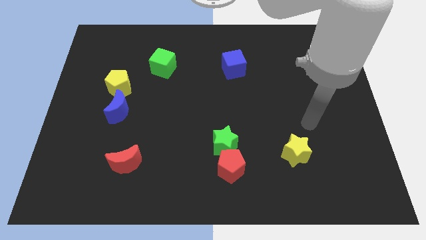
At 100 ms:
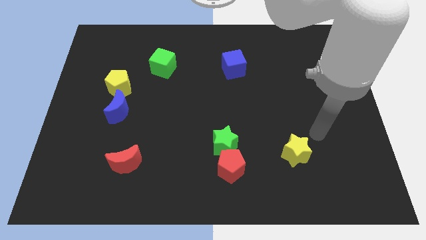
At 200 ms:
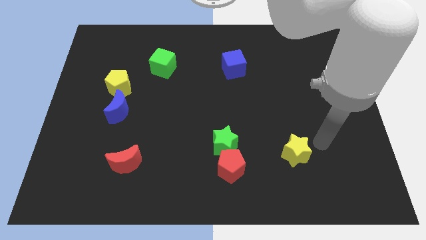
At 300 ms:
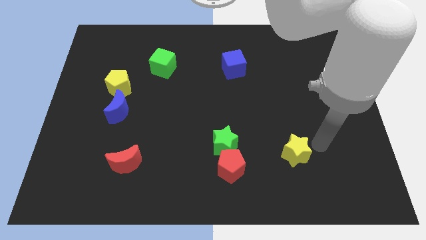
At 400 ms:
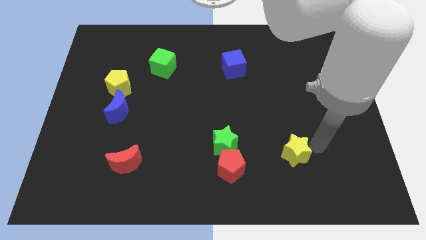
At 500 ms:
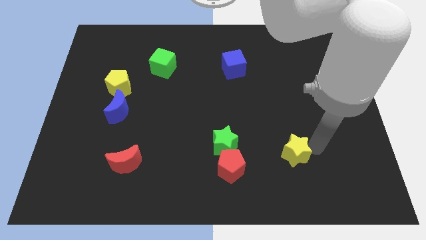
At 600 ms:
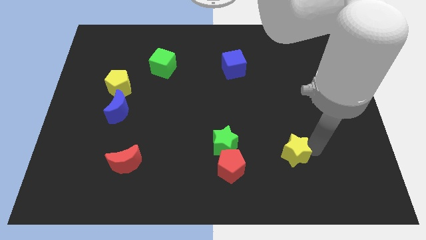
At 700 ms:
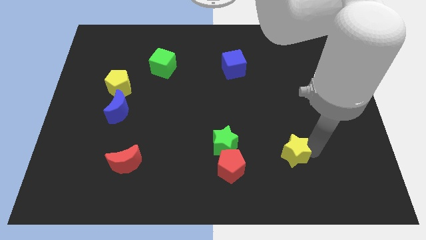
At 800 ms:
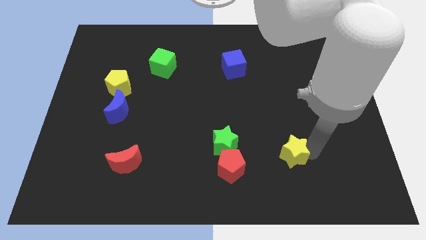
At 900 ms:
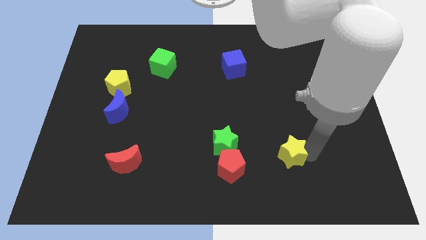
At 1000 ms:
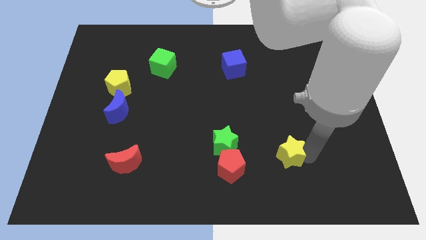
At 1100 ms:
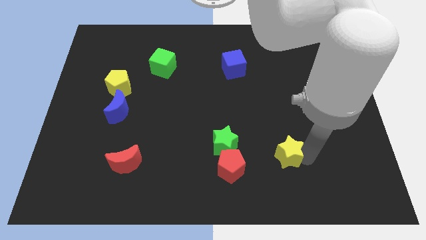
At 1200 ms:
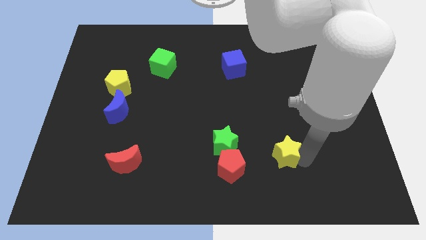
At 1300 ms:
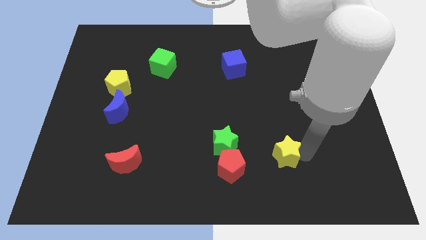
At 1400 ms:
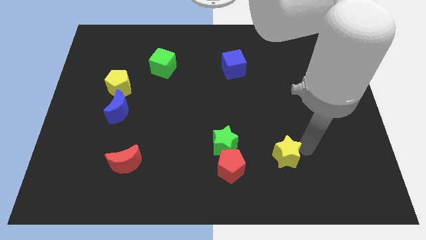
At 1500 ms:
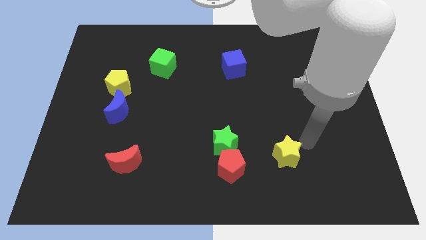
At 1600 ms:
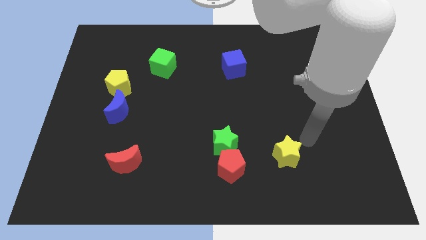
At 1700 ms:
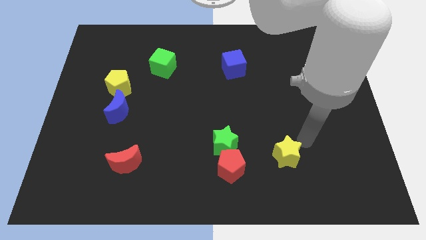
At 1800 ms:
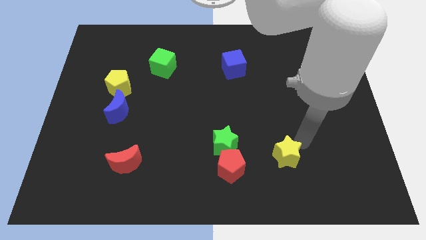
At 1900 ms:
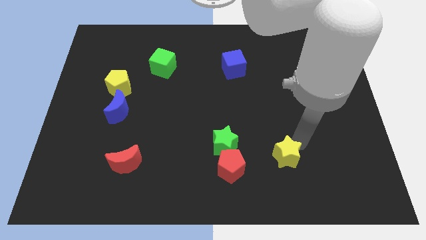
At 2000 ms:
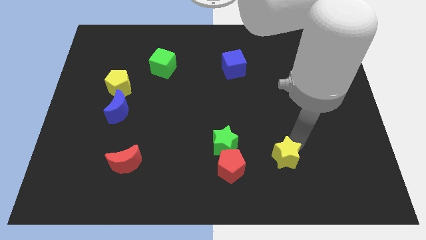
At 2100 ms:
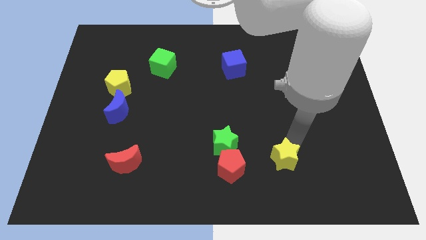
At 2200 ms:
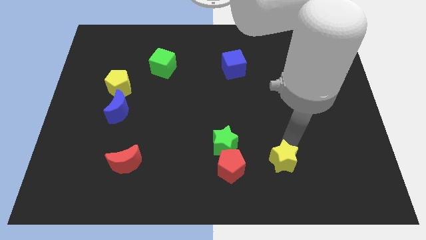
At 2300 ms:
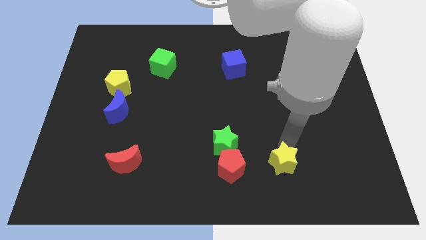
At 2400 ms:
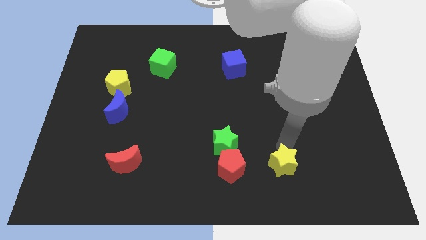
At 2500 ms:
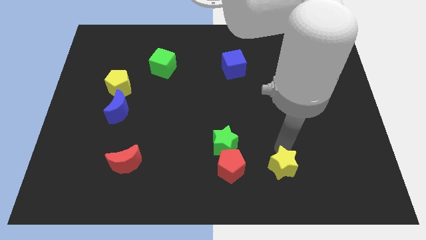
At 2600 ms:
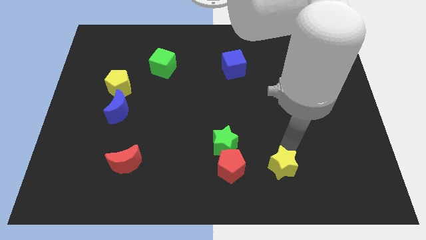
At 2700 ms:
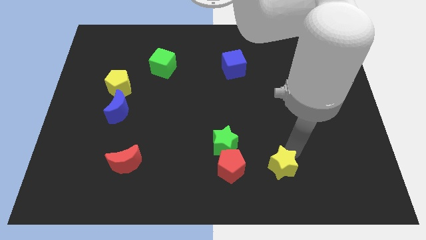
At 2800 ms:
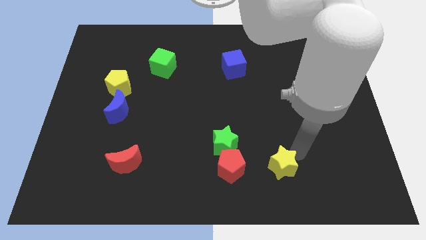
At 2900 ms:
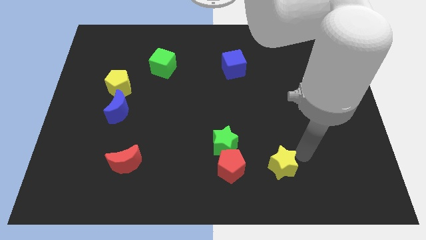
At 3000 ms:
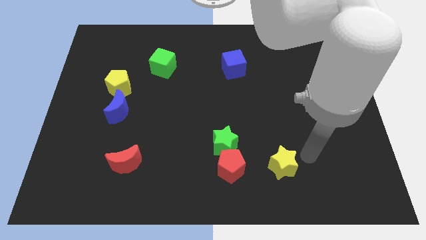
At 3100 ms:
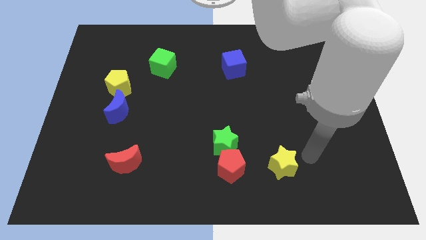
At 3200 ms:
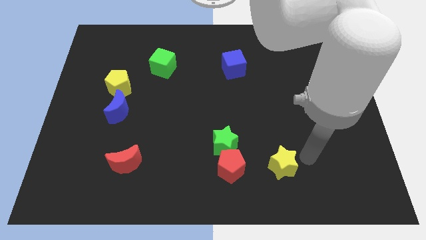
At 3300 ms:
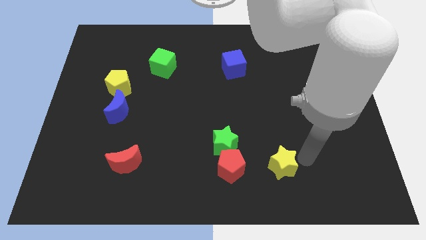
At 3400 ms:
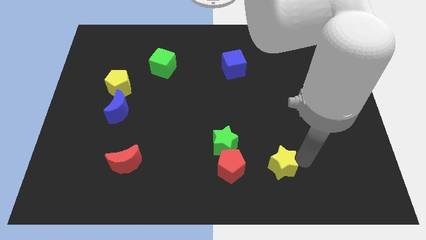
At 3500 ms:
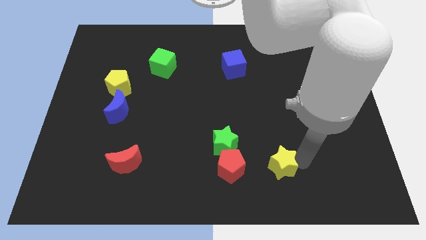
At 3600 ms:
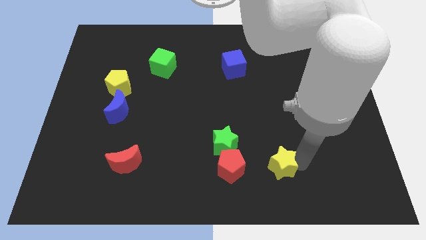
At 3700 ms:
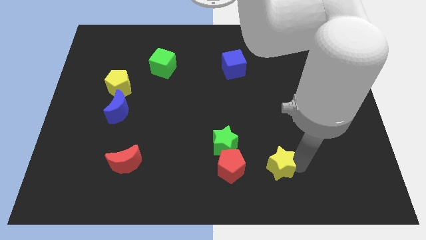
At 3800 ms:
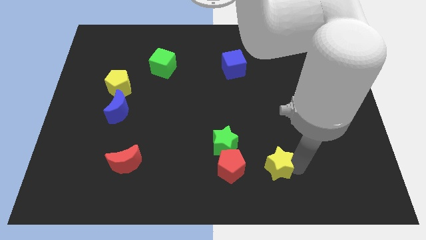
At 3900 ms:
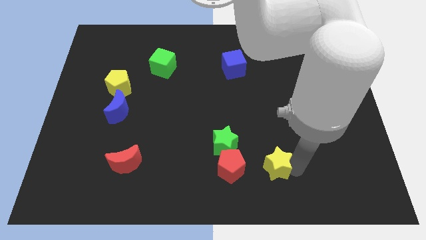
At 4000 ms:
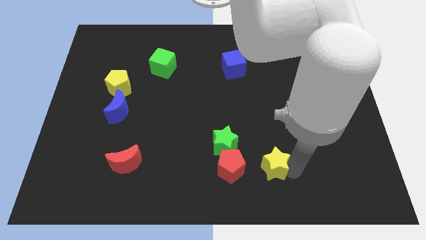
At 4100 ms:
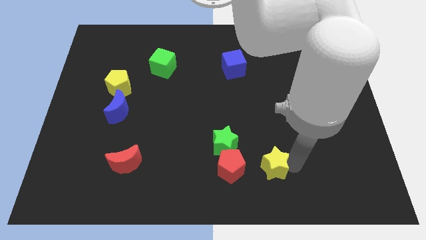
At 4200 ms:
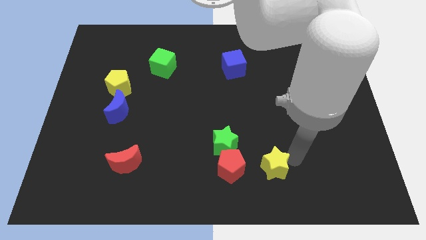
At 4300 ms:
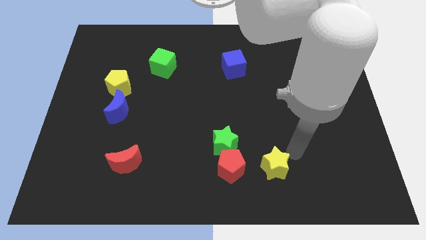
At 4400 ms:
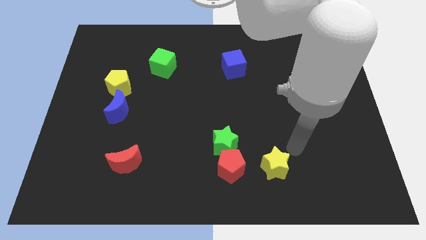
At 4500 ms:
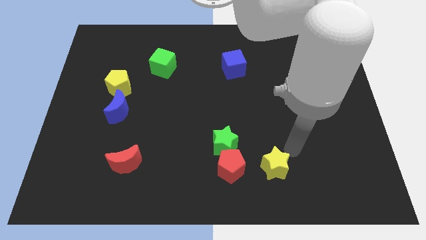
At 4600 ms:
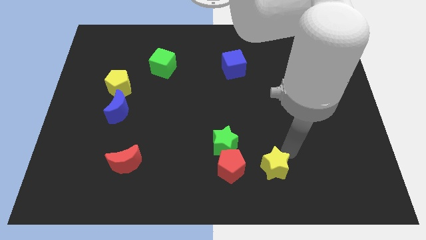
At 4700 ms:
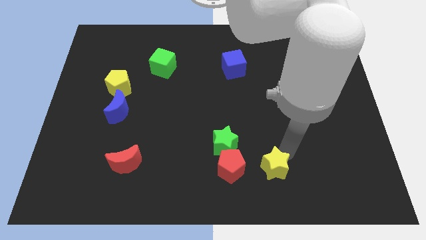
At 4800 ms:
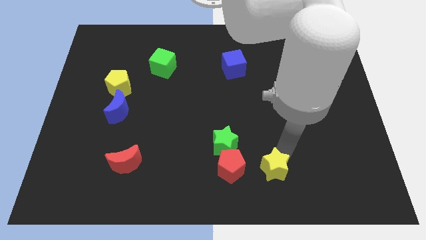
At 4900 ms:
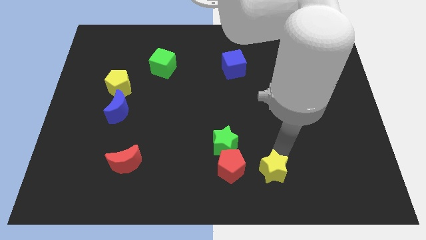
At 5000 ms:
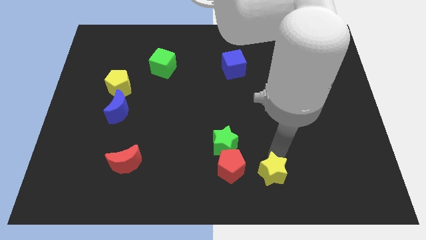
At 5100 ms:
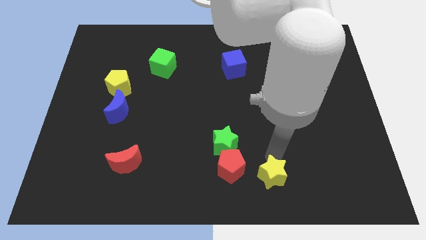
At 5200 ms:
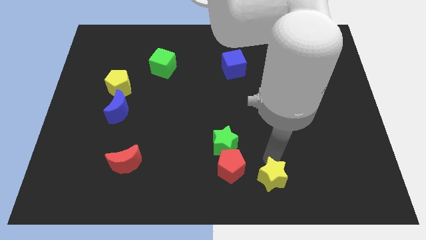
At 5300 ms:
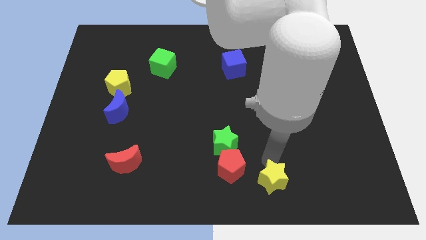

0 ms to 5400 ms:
slide the yellow star to the bottom side

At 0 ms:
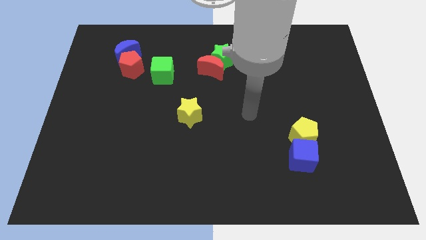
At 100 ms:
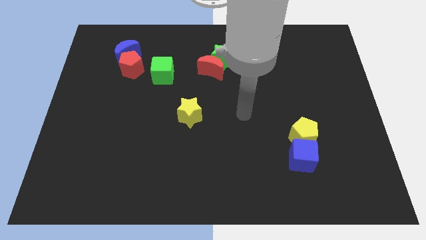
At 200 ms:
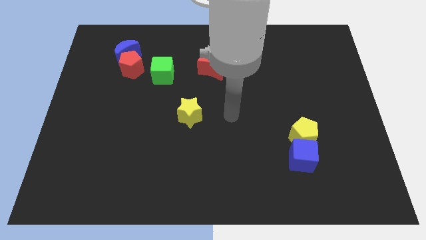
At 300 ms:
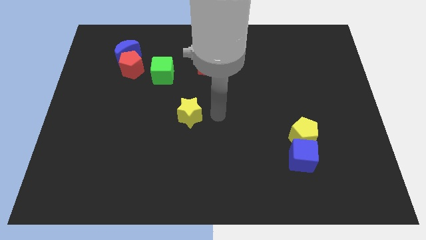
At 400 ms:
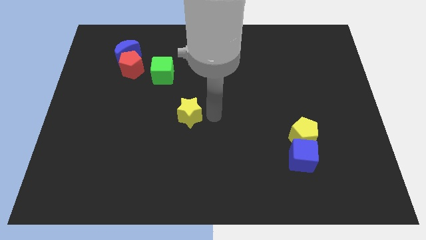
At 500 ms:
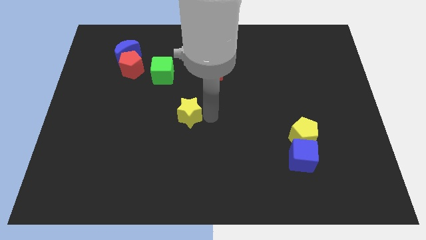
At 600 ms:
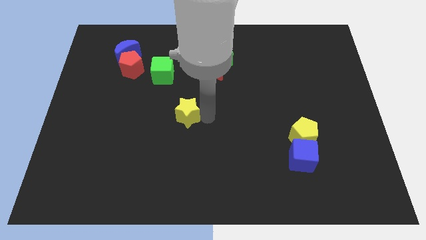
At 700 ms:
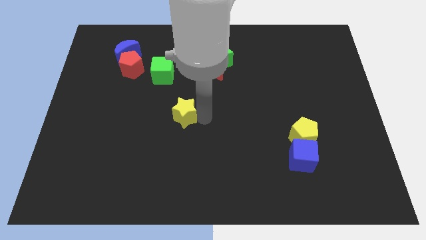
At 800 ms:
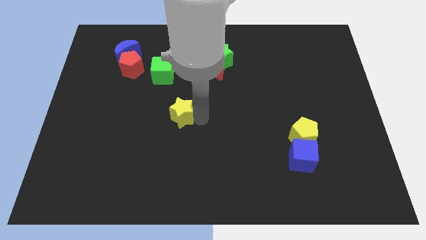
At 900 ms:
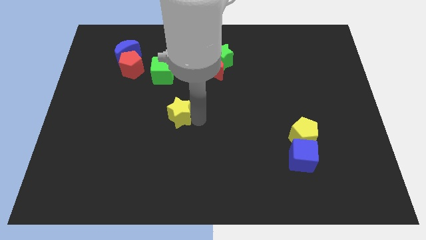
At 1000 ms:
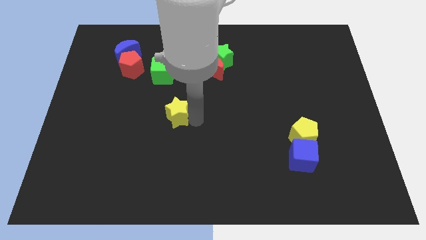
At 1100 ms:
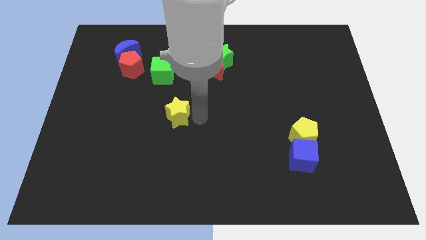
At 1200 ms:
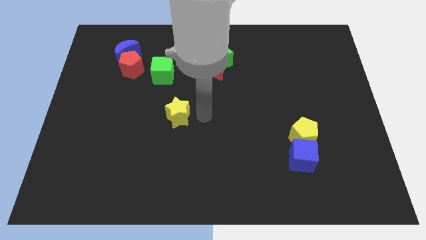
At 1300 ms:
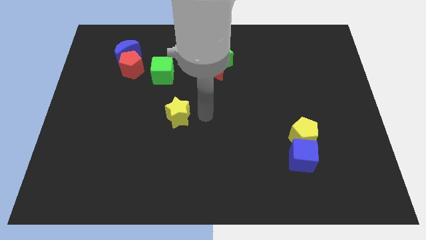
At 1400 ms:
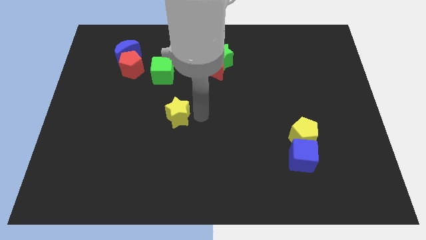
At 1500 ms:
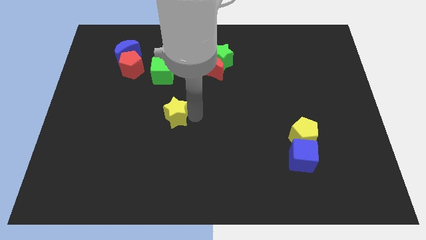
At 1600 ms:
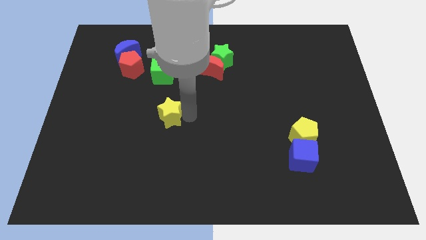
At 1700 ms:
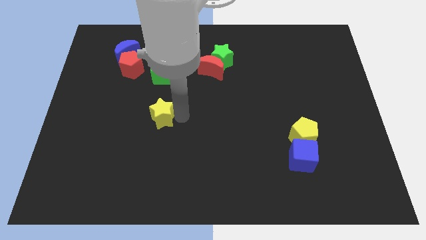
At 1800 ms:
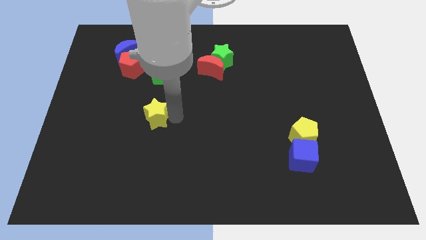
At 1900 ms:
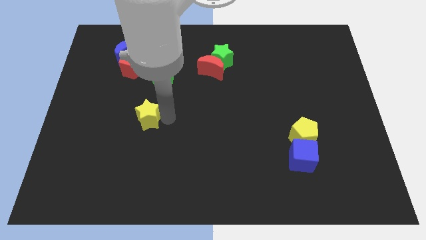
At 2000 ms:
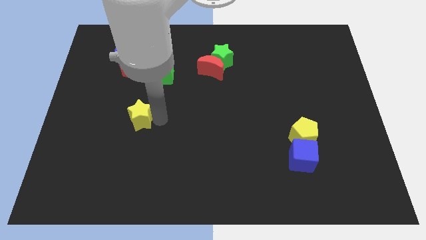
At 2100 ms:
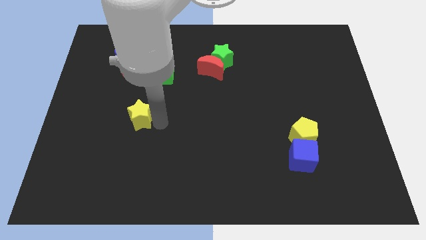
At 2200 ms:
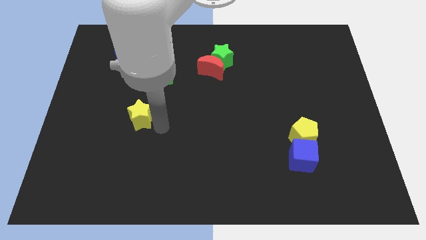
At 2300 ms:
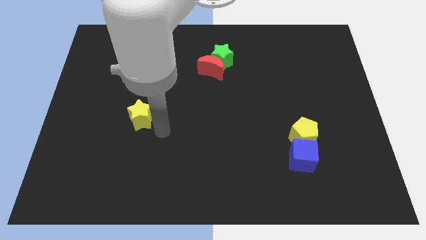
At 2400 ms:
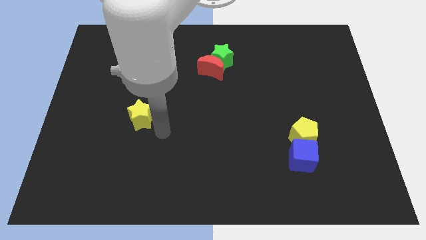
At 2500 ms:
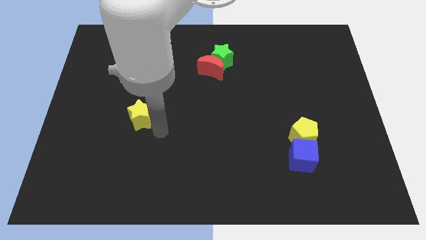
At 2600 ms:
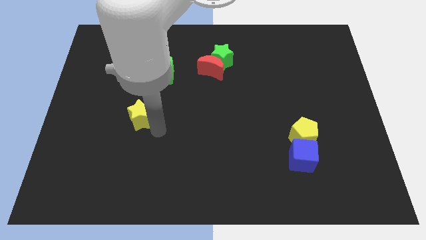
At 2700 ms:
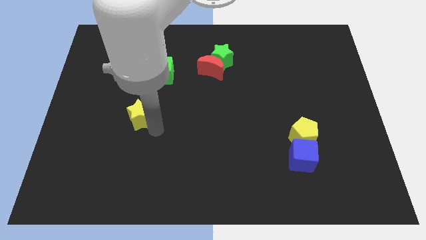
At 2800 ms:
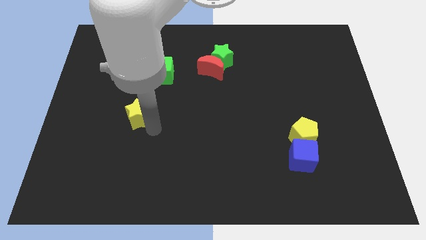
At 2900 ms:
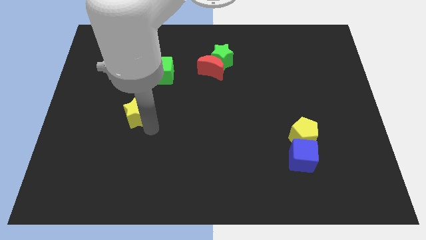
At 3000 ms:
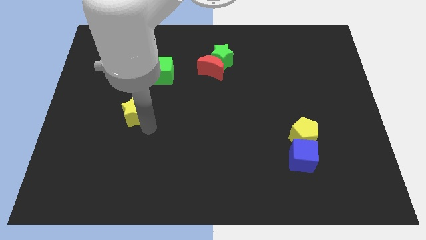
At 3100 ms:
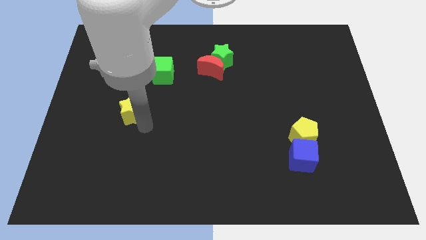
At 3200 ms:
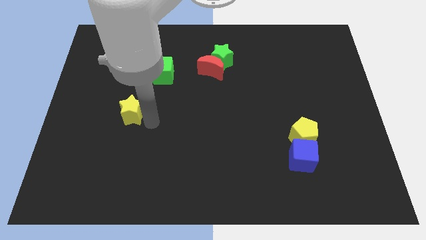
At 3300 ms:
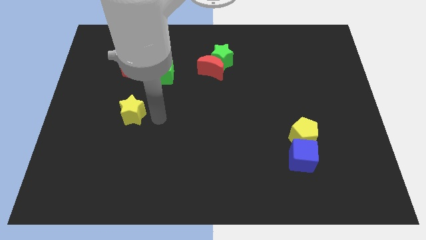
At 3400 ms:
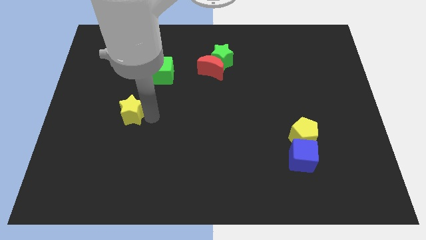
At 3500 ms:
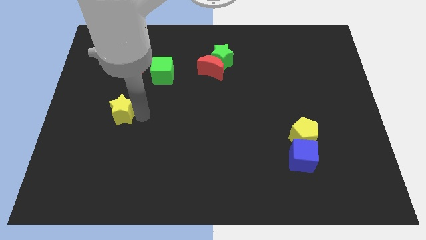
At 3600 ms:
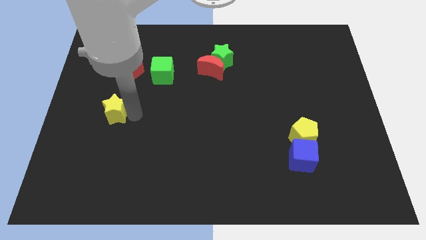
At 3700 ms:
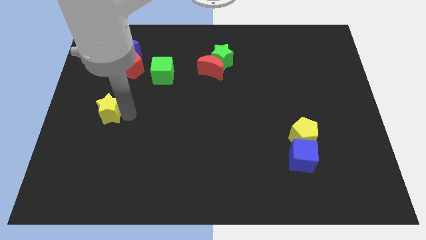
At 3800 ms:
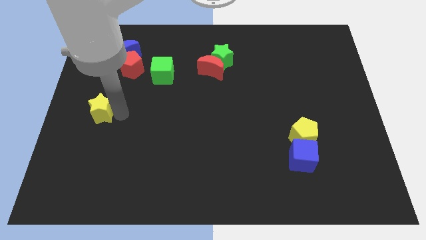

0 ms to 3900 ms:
move the yellow star to the center left
